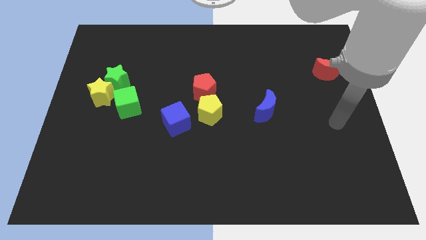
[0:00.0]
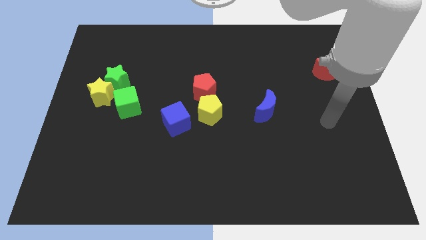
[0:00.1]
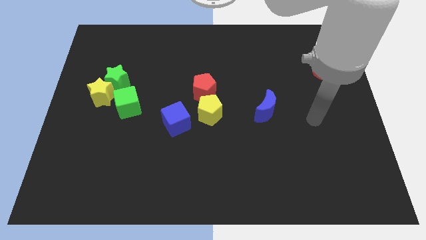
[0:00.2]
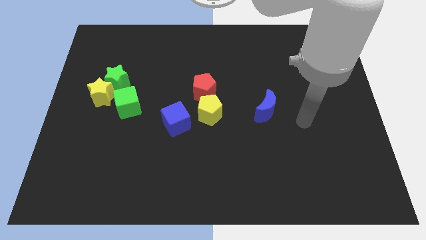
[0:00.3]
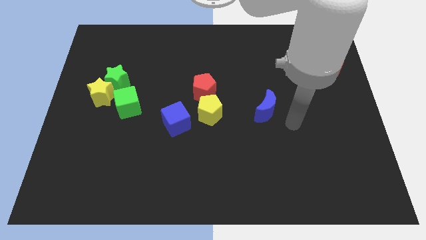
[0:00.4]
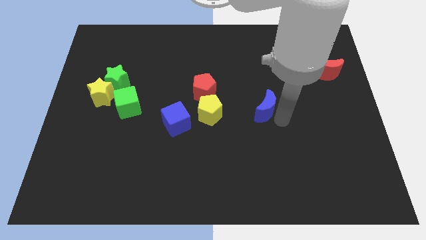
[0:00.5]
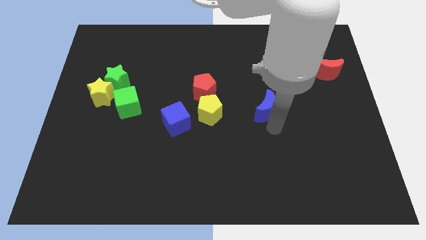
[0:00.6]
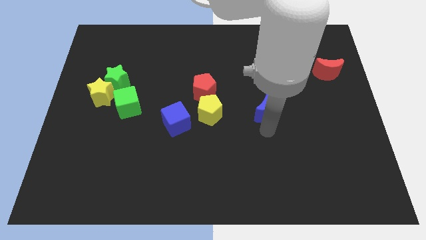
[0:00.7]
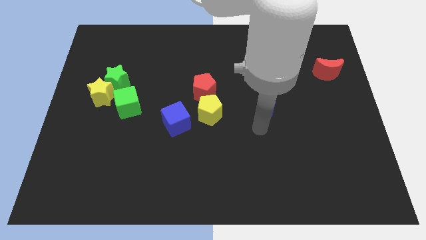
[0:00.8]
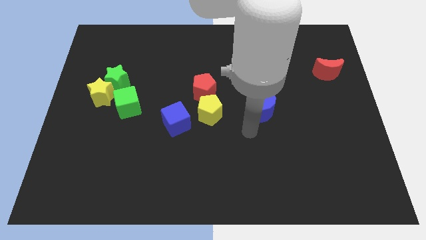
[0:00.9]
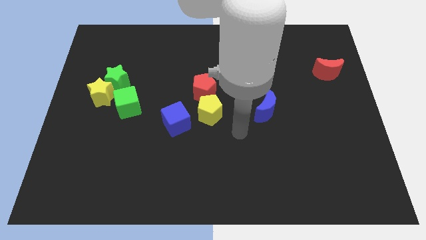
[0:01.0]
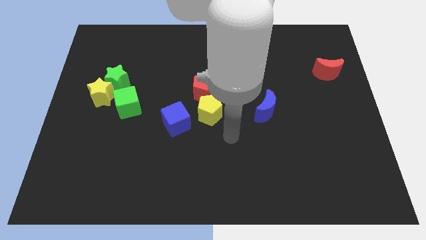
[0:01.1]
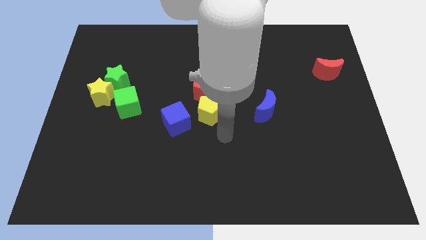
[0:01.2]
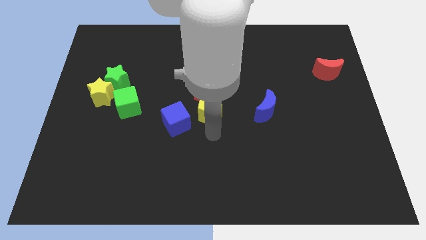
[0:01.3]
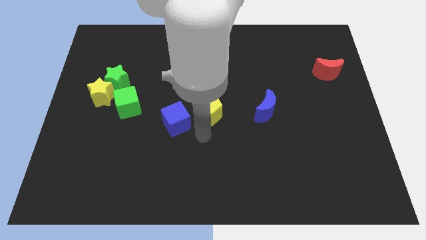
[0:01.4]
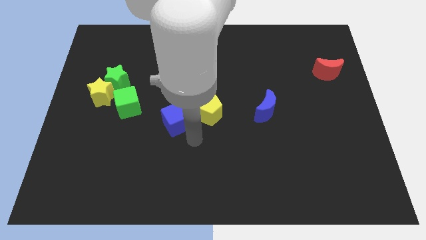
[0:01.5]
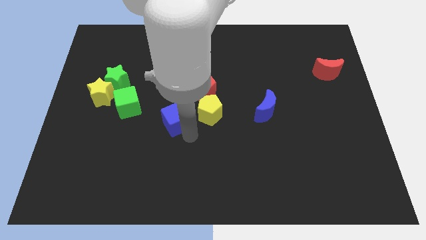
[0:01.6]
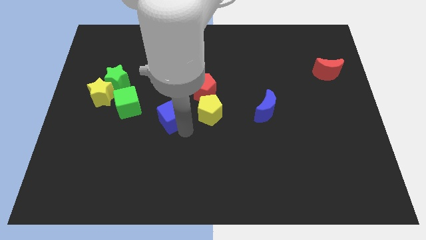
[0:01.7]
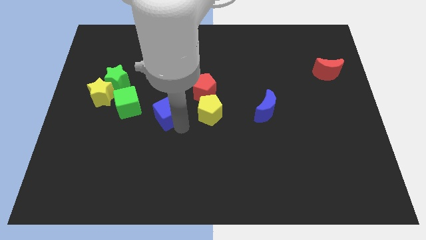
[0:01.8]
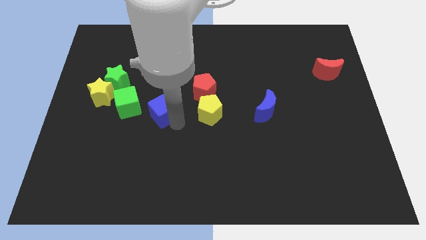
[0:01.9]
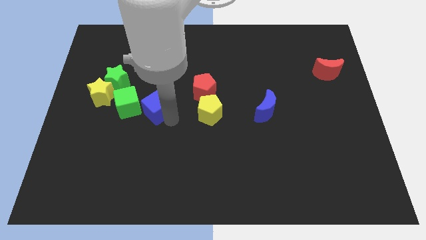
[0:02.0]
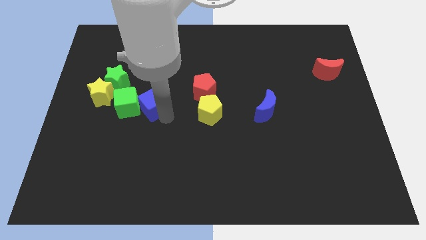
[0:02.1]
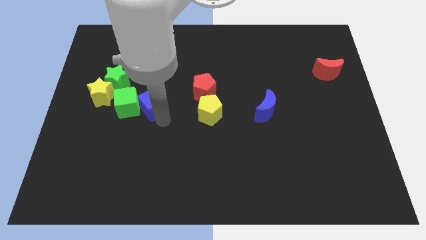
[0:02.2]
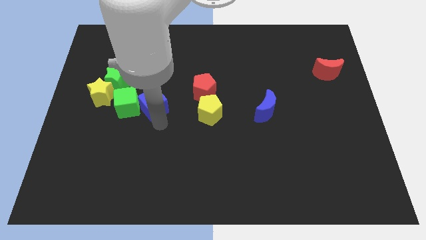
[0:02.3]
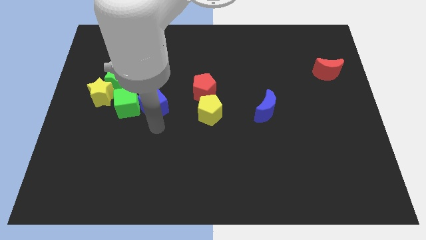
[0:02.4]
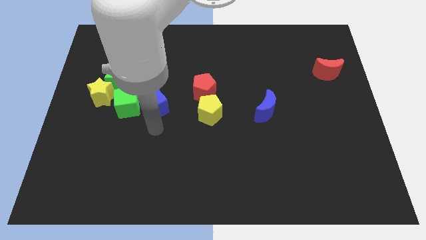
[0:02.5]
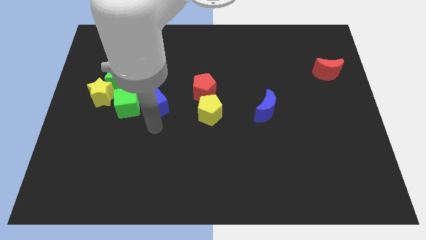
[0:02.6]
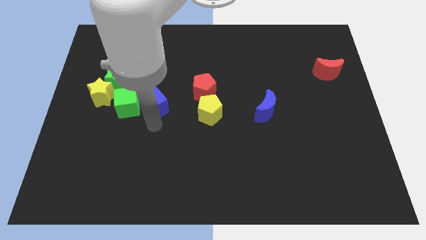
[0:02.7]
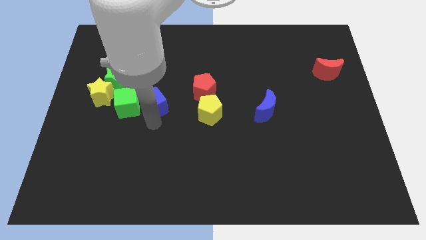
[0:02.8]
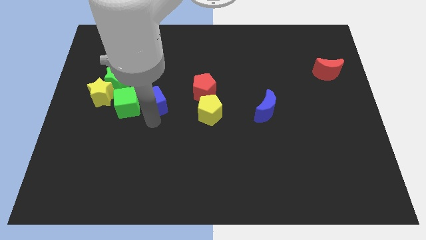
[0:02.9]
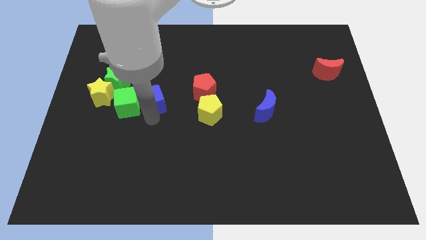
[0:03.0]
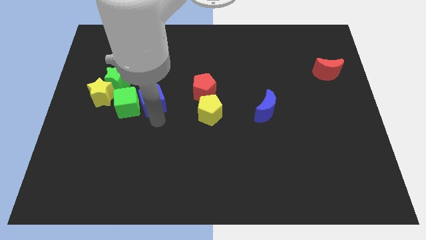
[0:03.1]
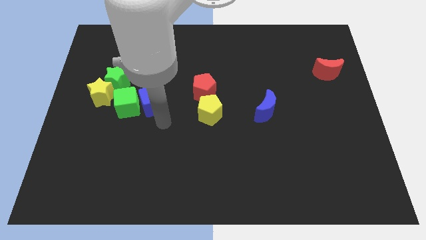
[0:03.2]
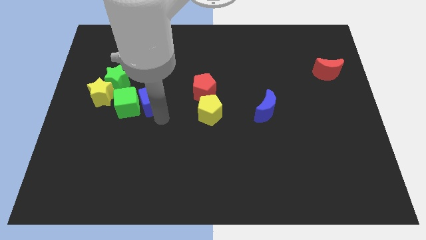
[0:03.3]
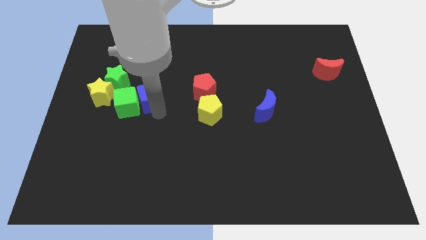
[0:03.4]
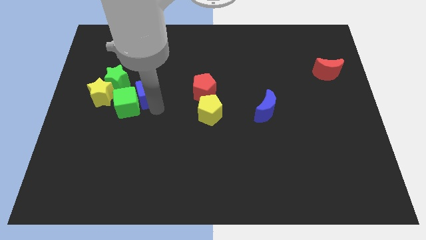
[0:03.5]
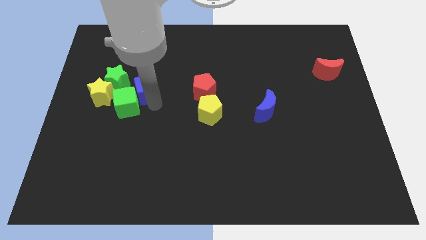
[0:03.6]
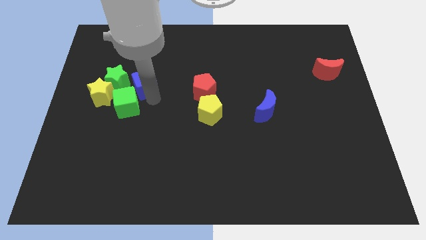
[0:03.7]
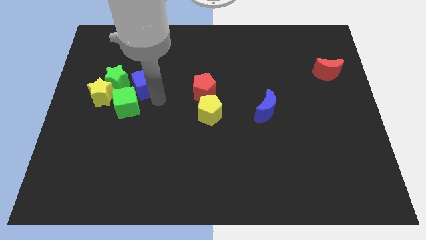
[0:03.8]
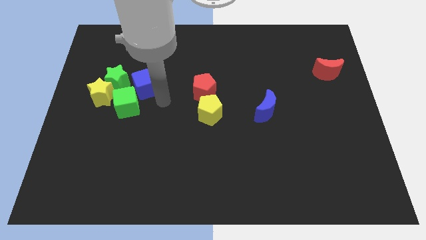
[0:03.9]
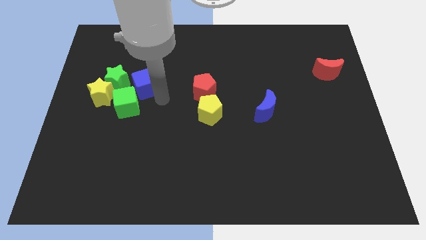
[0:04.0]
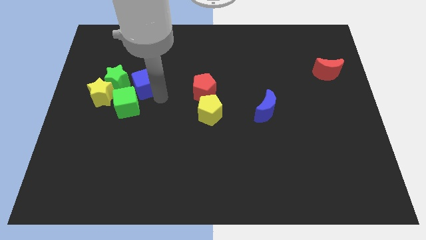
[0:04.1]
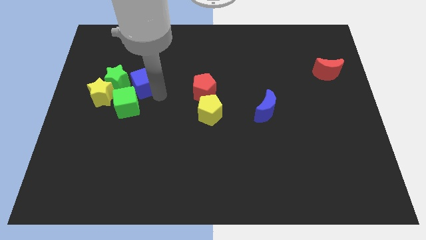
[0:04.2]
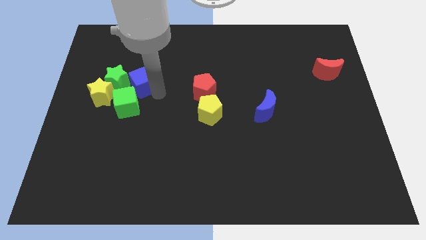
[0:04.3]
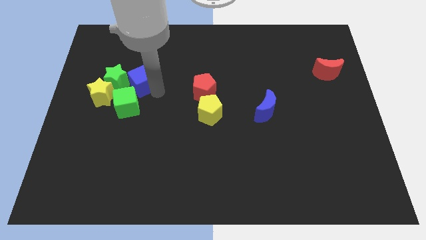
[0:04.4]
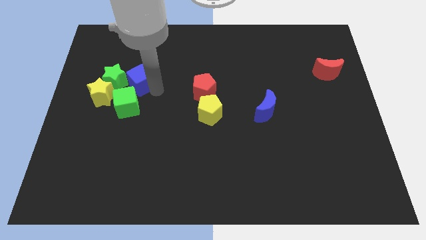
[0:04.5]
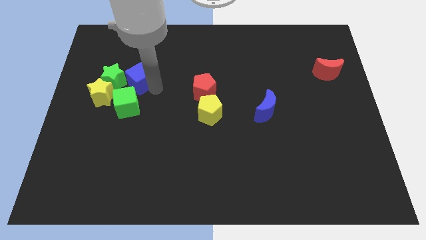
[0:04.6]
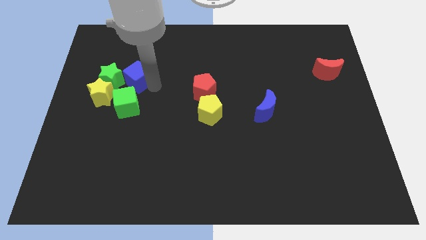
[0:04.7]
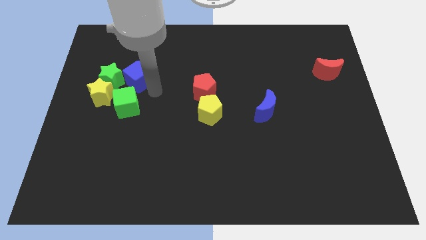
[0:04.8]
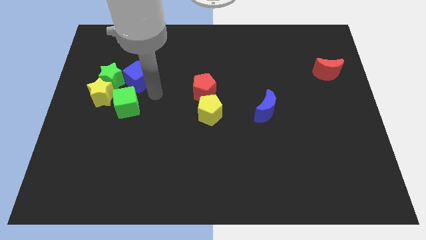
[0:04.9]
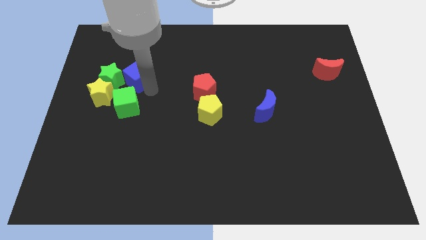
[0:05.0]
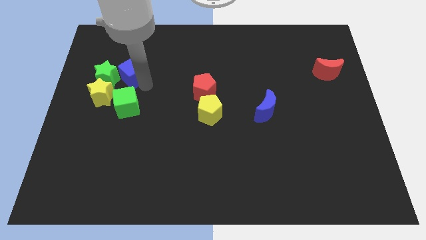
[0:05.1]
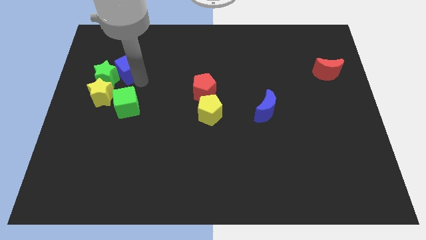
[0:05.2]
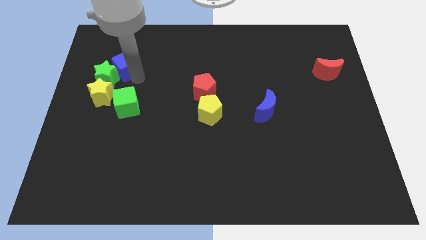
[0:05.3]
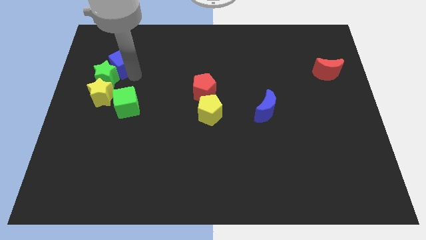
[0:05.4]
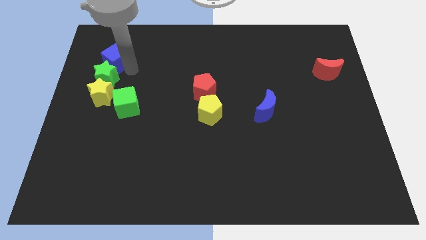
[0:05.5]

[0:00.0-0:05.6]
put the blue cube to the top left of the green star

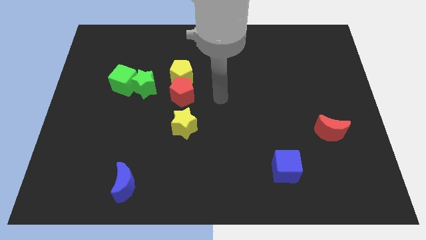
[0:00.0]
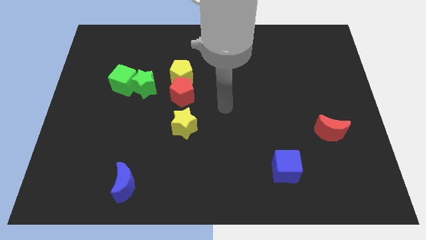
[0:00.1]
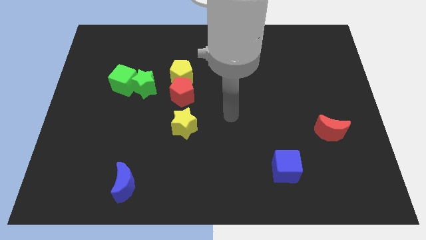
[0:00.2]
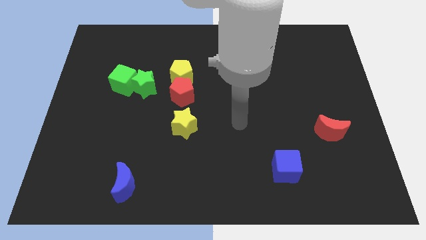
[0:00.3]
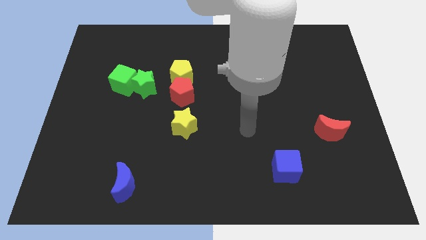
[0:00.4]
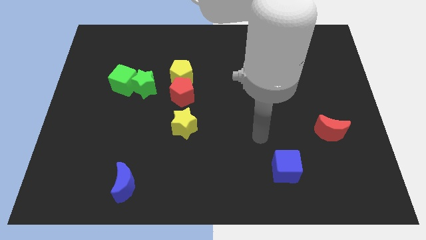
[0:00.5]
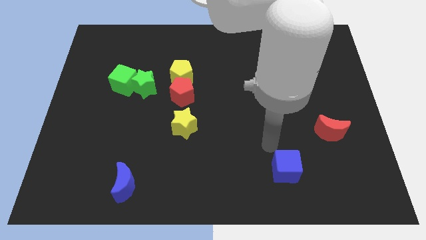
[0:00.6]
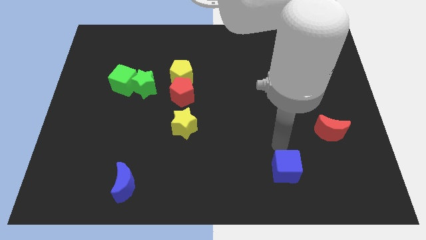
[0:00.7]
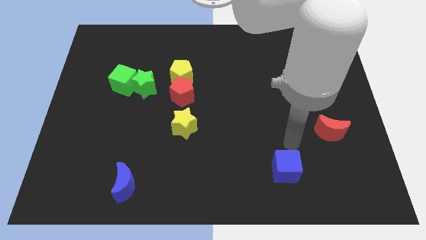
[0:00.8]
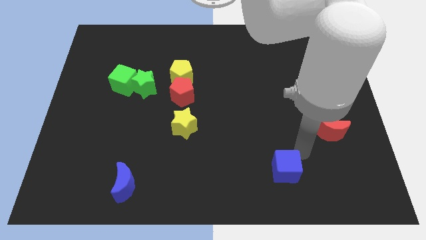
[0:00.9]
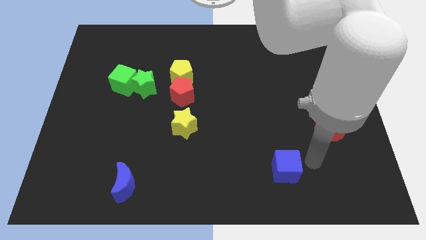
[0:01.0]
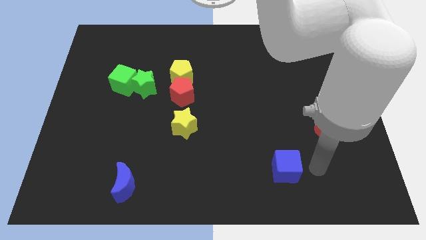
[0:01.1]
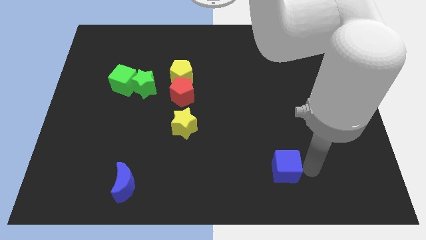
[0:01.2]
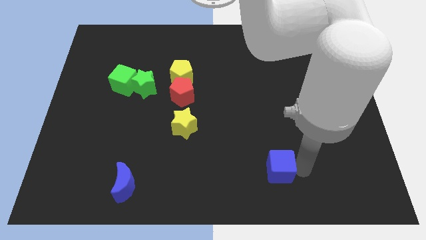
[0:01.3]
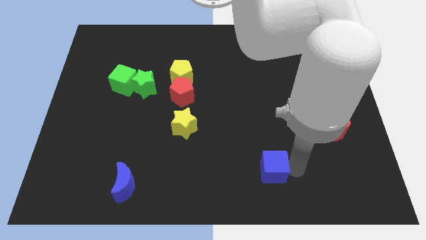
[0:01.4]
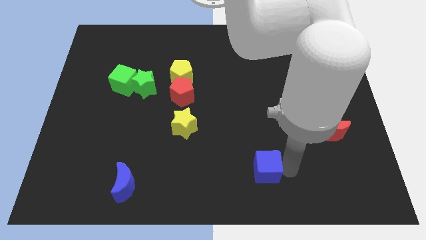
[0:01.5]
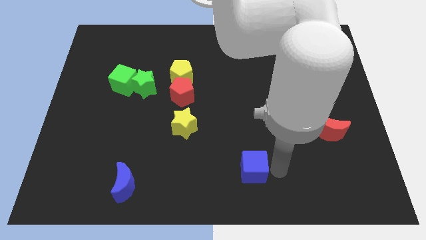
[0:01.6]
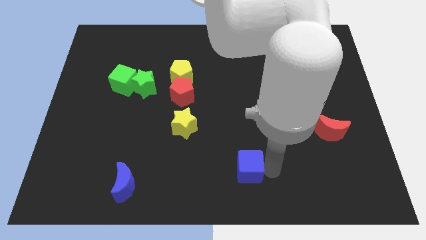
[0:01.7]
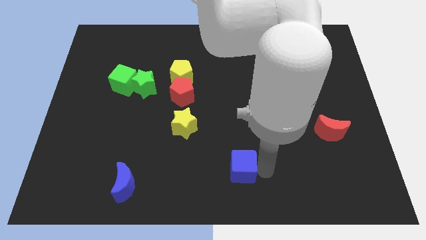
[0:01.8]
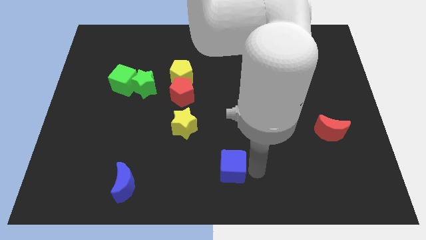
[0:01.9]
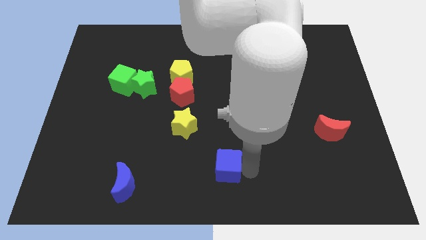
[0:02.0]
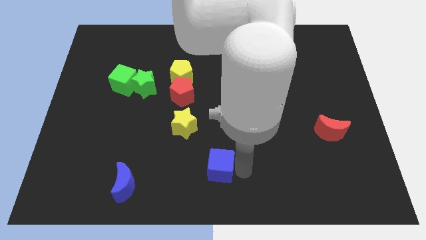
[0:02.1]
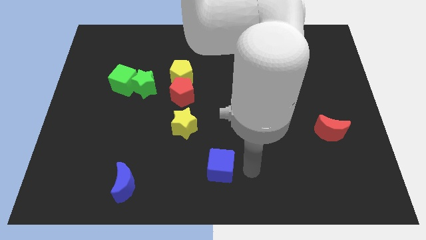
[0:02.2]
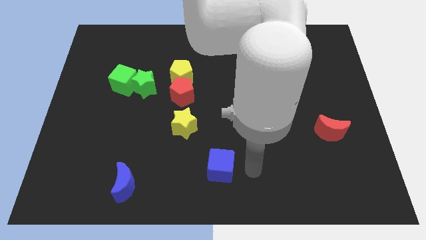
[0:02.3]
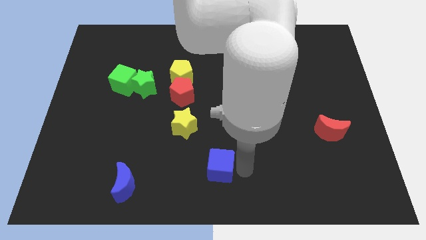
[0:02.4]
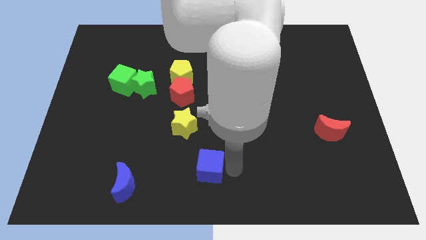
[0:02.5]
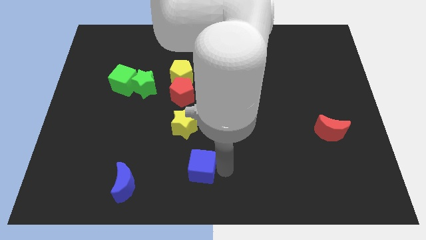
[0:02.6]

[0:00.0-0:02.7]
push the blue cube to the bottom of the yellow star

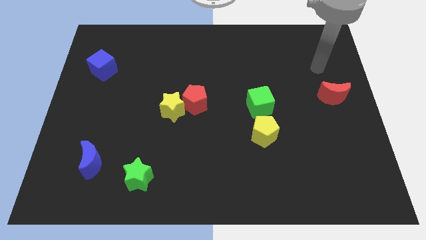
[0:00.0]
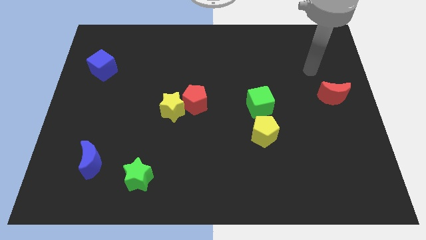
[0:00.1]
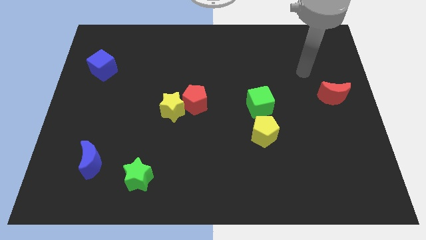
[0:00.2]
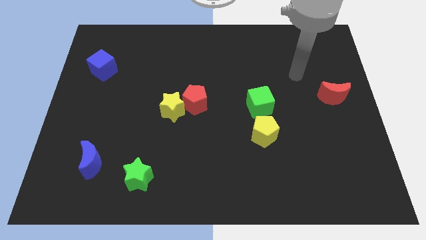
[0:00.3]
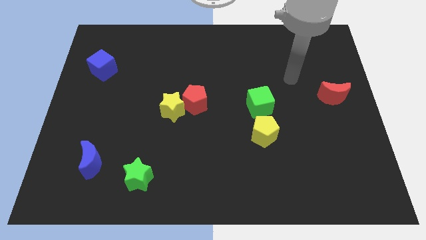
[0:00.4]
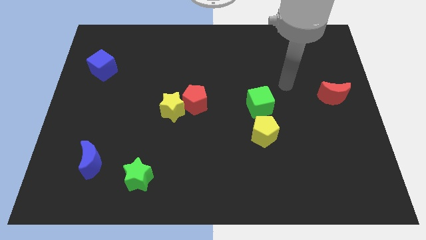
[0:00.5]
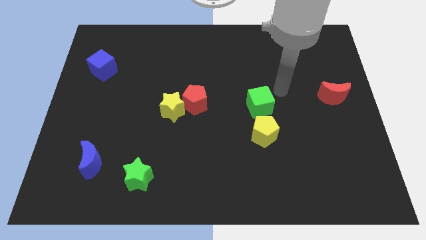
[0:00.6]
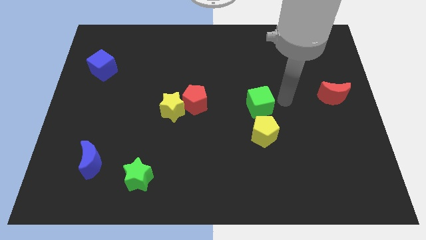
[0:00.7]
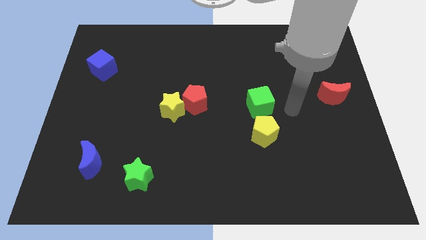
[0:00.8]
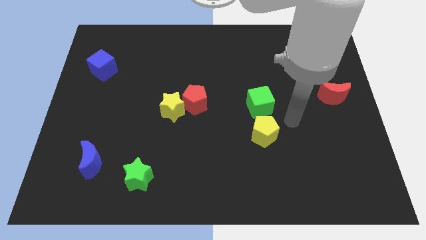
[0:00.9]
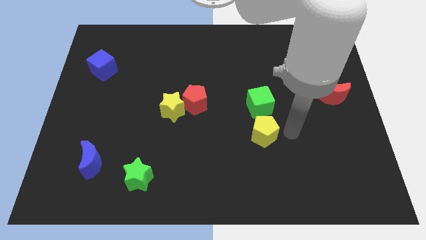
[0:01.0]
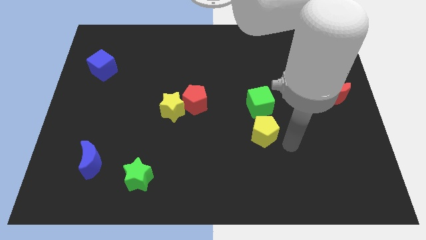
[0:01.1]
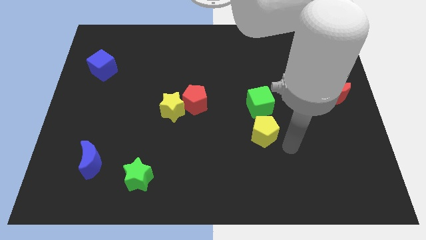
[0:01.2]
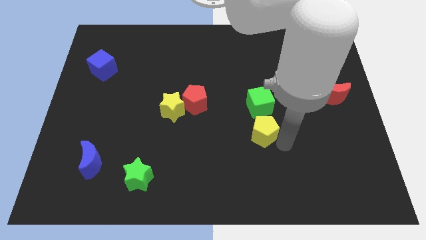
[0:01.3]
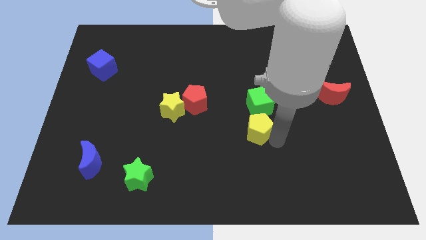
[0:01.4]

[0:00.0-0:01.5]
slide the yellow pentagon diagonally down and to the left of the green cube
